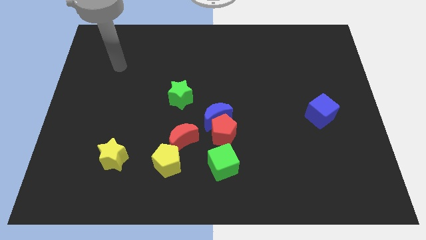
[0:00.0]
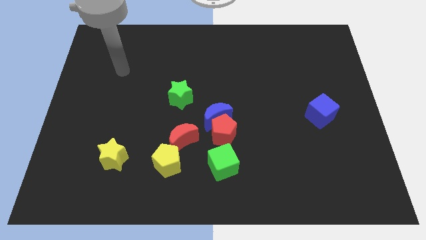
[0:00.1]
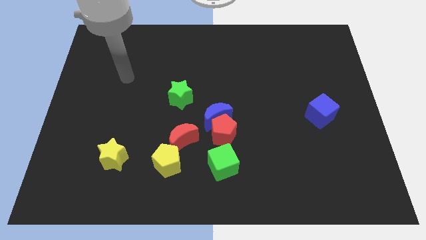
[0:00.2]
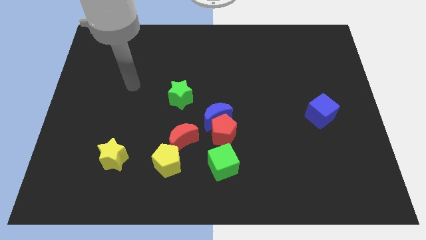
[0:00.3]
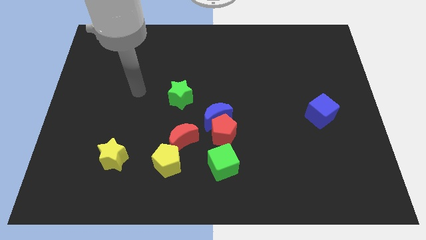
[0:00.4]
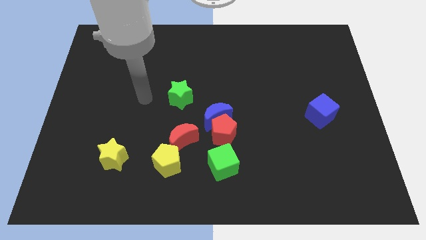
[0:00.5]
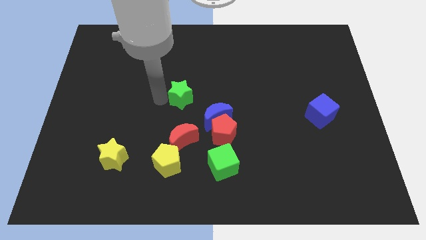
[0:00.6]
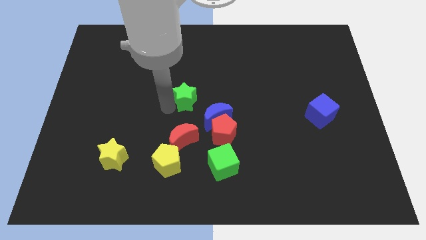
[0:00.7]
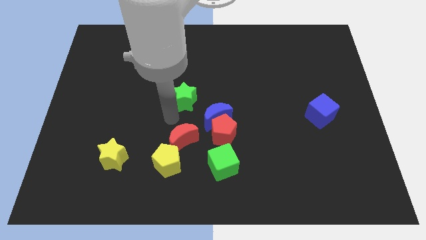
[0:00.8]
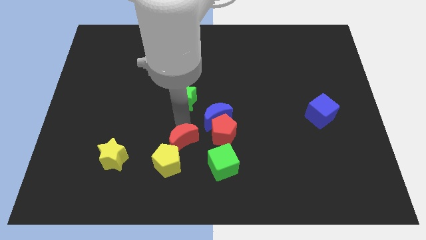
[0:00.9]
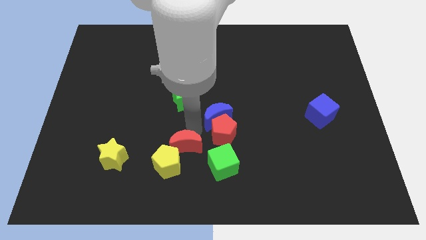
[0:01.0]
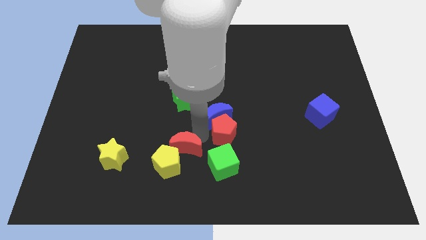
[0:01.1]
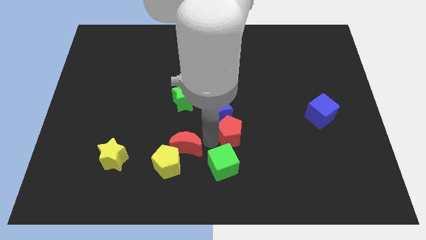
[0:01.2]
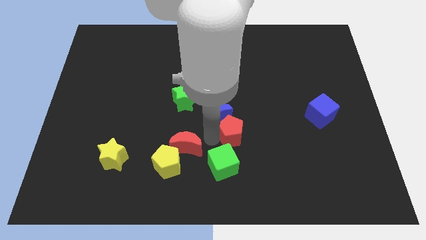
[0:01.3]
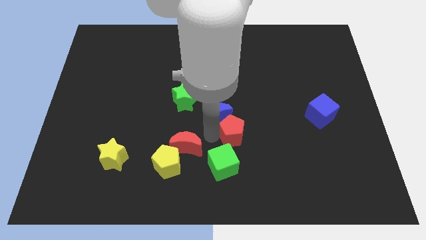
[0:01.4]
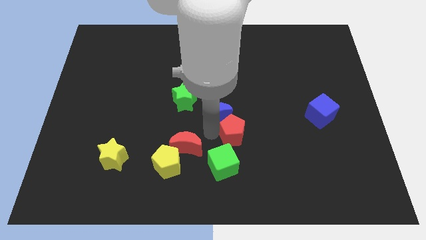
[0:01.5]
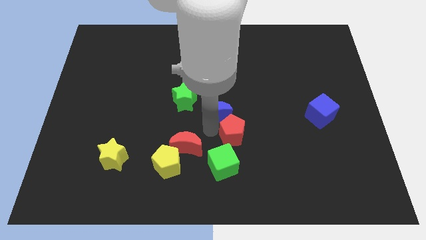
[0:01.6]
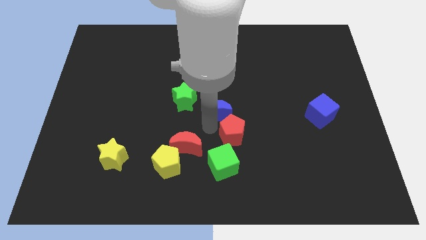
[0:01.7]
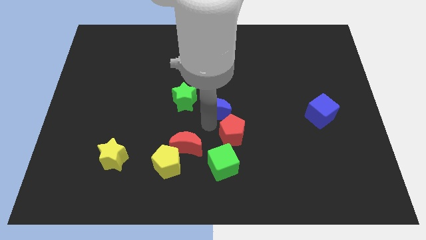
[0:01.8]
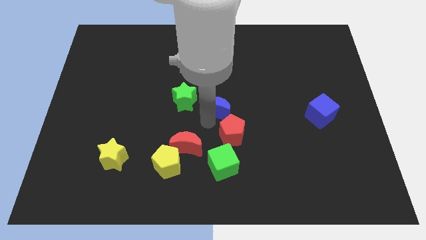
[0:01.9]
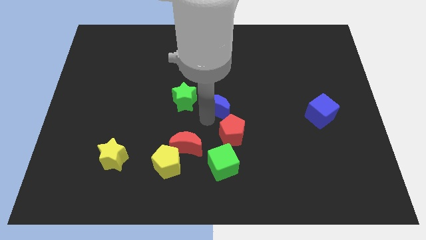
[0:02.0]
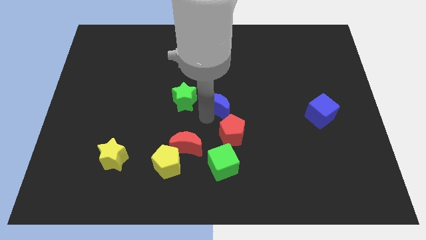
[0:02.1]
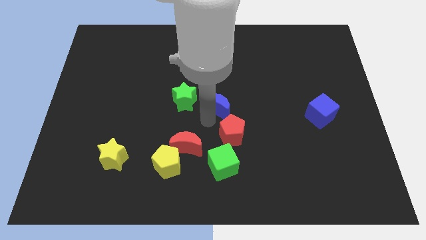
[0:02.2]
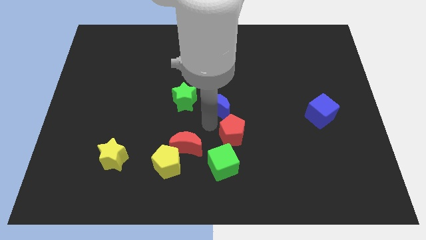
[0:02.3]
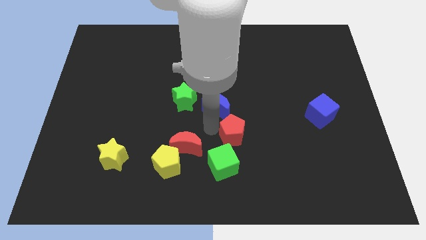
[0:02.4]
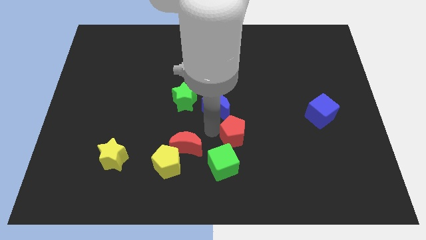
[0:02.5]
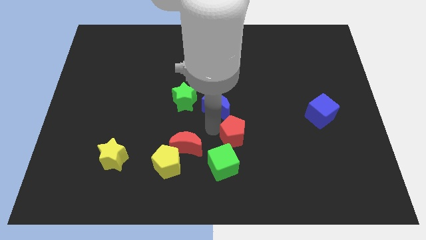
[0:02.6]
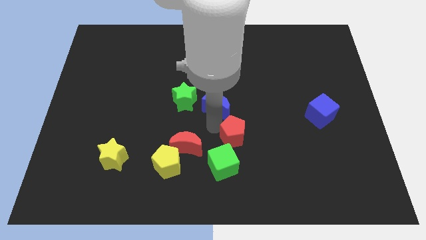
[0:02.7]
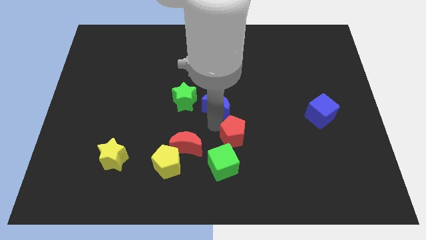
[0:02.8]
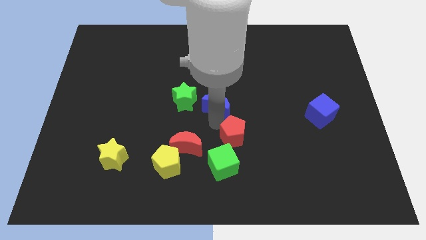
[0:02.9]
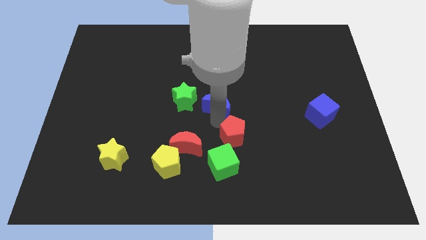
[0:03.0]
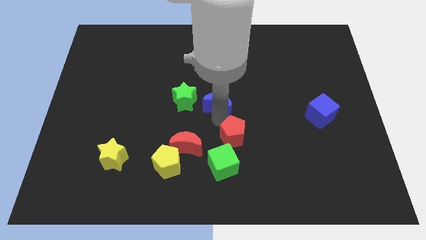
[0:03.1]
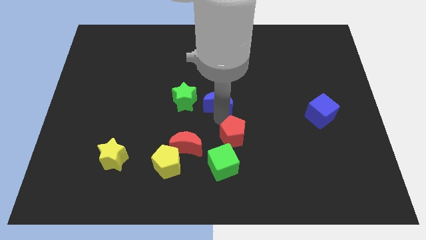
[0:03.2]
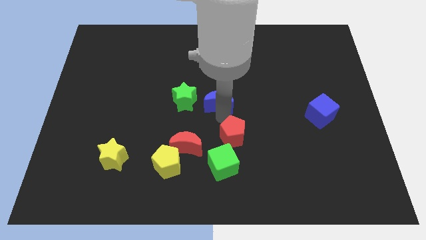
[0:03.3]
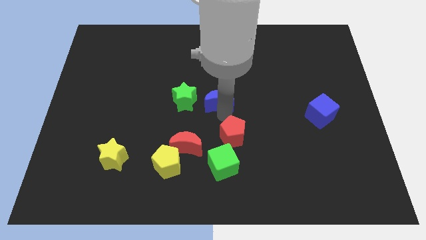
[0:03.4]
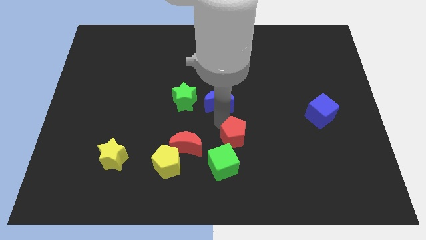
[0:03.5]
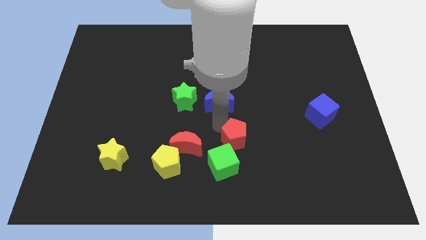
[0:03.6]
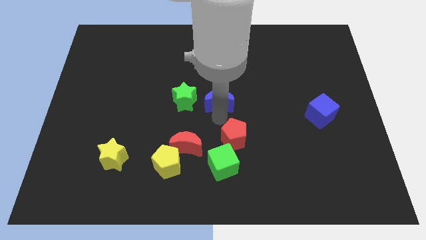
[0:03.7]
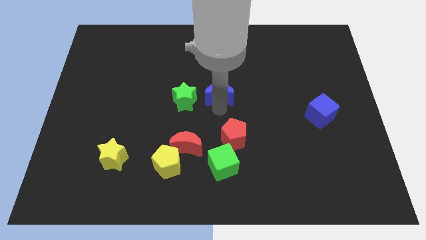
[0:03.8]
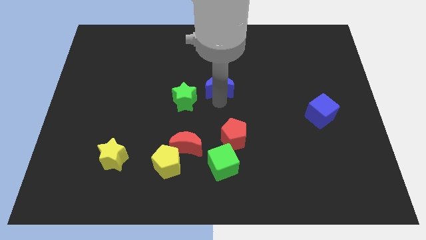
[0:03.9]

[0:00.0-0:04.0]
slide the blue moon a bit up

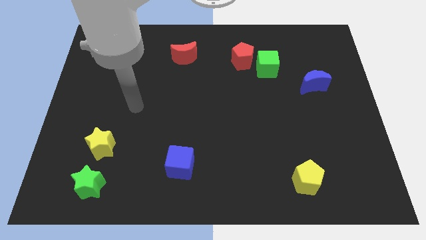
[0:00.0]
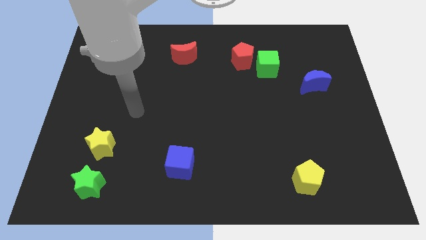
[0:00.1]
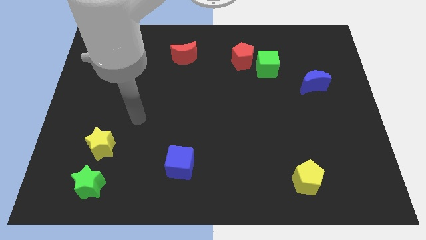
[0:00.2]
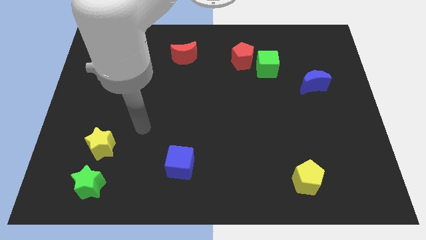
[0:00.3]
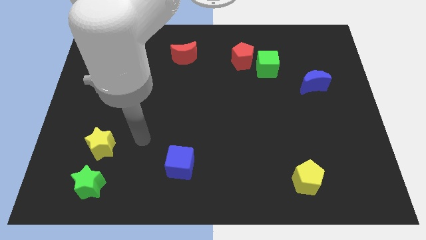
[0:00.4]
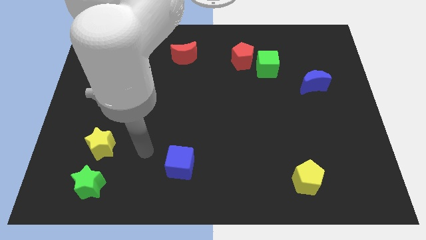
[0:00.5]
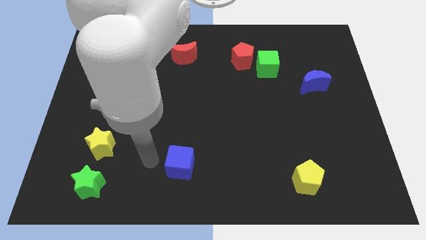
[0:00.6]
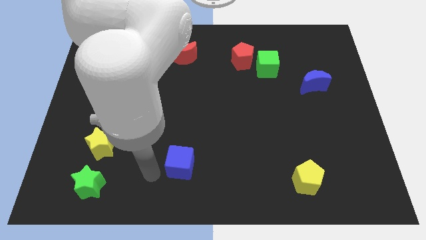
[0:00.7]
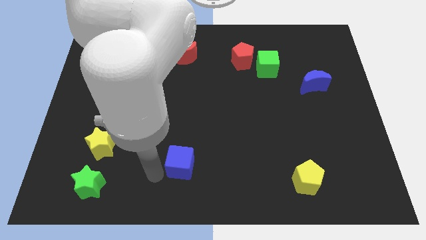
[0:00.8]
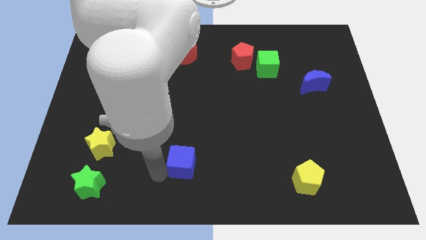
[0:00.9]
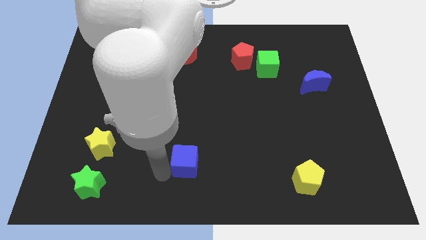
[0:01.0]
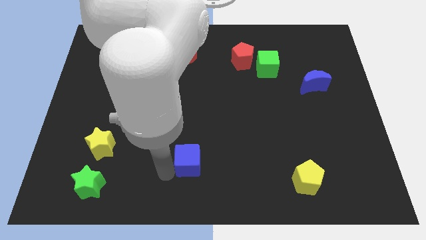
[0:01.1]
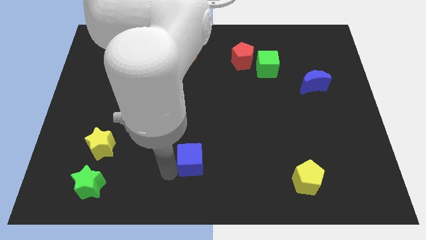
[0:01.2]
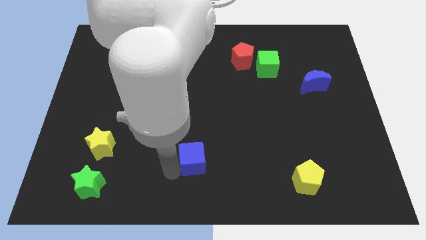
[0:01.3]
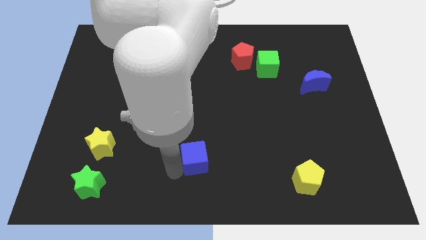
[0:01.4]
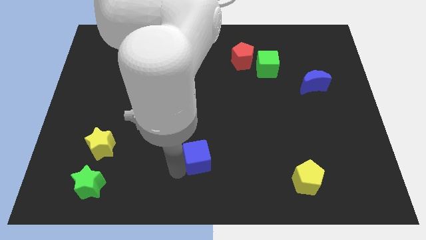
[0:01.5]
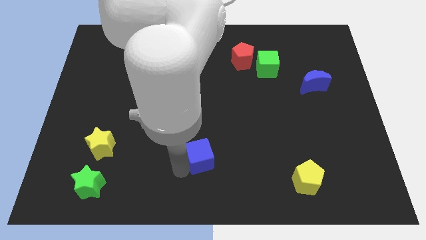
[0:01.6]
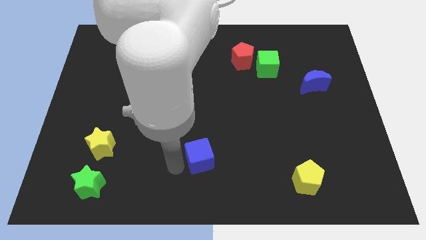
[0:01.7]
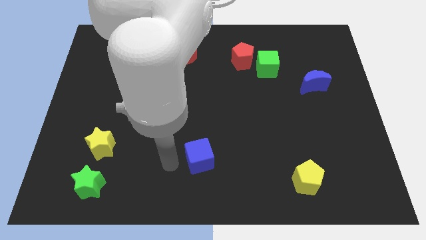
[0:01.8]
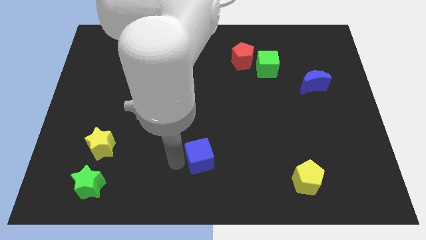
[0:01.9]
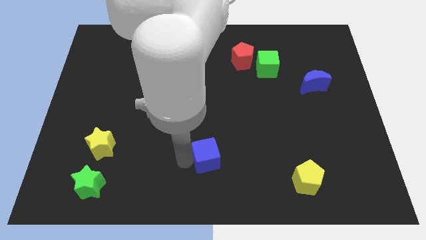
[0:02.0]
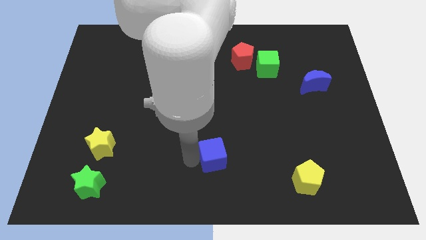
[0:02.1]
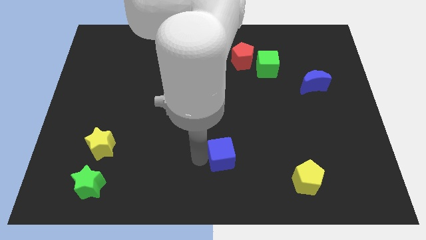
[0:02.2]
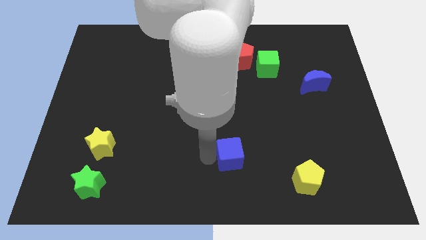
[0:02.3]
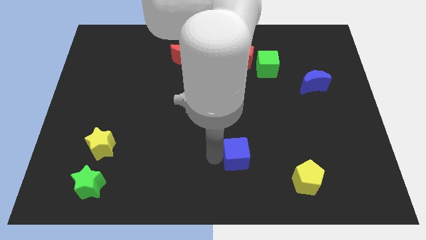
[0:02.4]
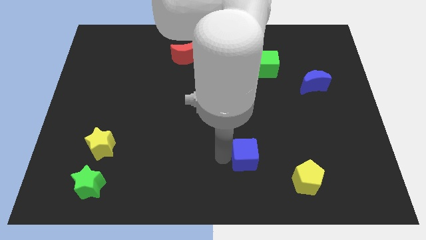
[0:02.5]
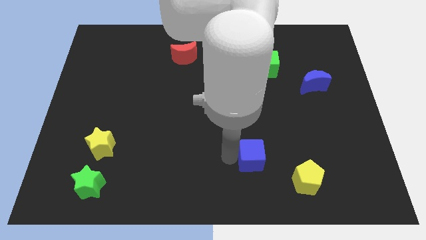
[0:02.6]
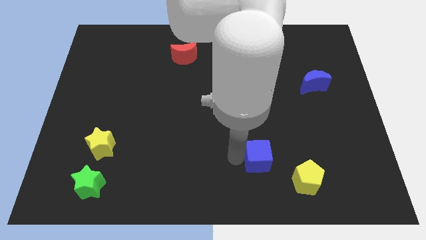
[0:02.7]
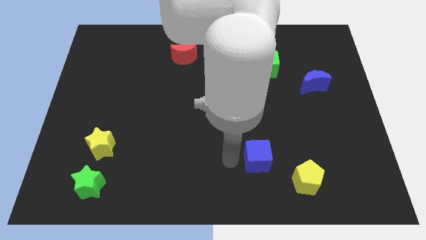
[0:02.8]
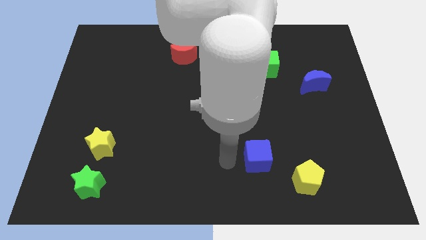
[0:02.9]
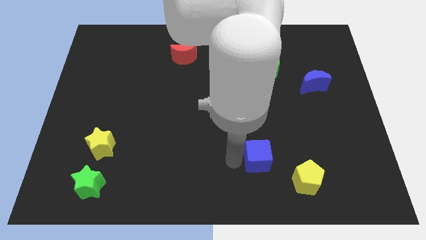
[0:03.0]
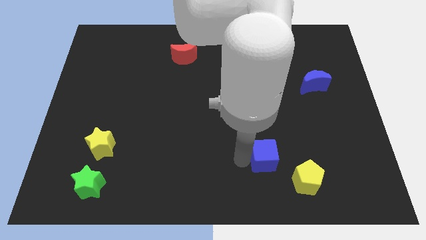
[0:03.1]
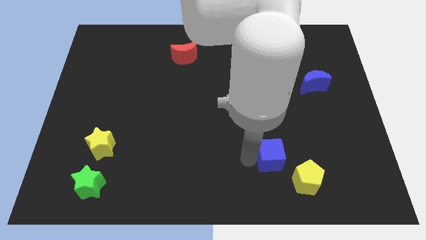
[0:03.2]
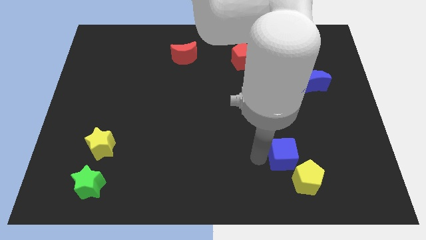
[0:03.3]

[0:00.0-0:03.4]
push the blue cube right

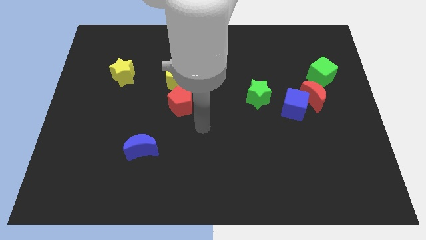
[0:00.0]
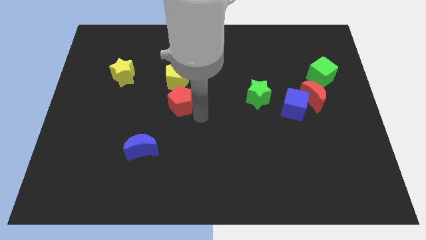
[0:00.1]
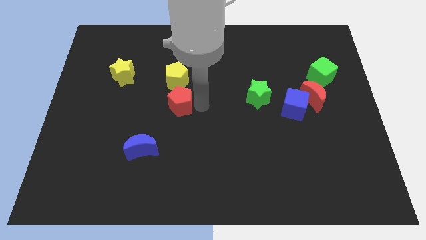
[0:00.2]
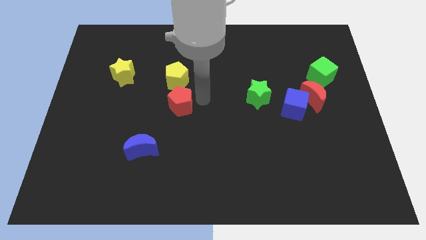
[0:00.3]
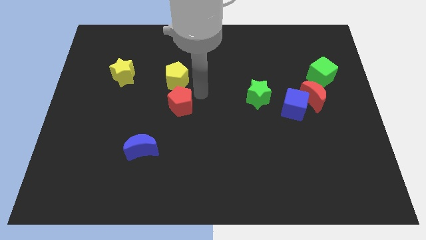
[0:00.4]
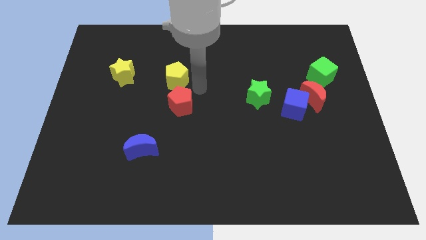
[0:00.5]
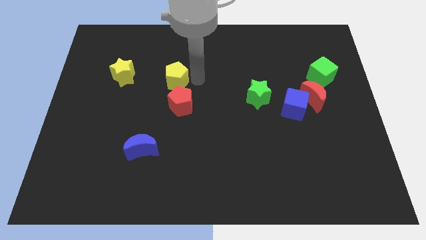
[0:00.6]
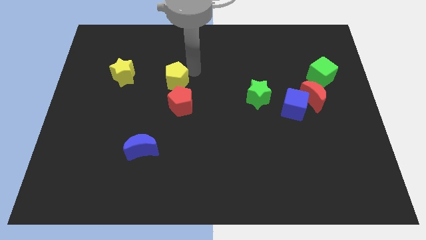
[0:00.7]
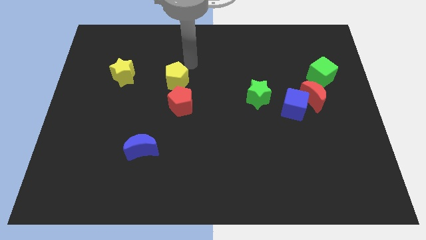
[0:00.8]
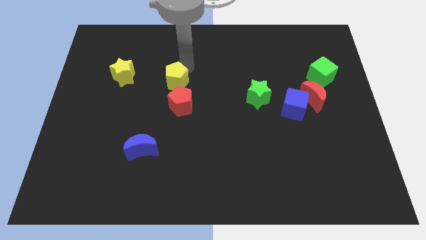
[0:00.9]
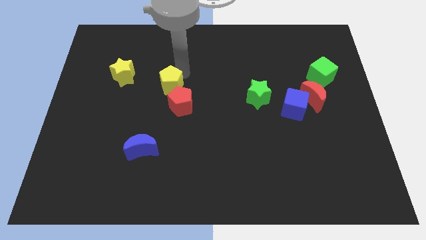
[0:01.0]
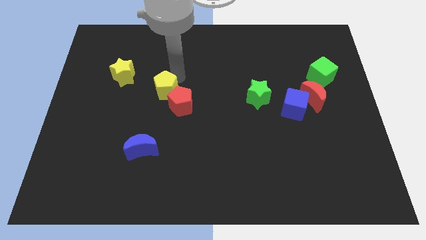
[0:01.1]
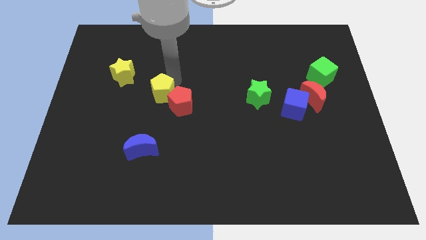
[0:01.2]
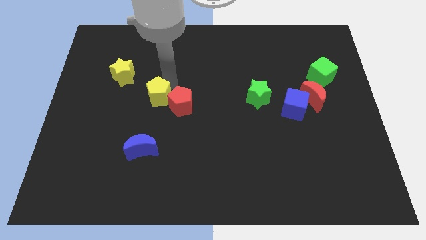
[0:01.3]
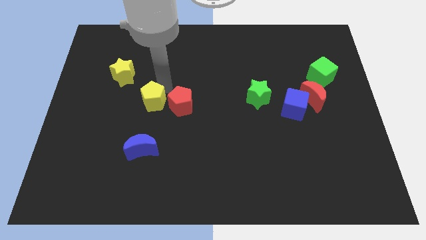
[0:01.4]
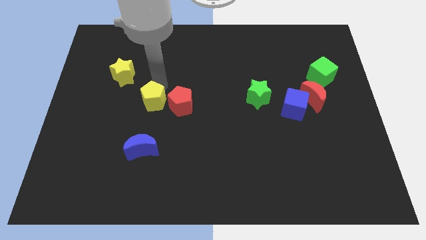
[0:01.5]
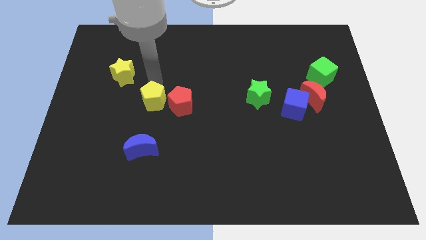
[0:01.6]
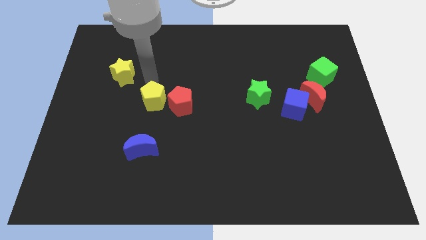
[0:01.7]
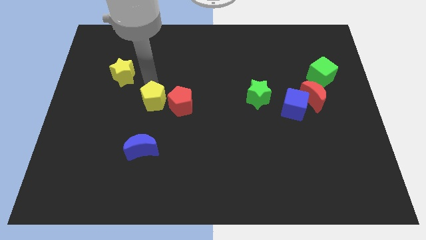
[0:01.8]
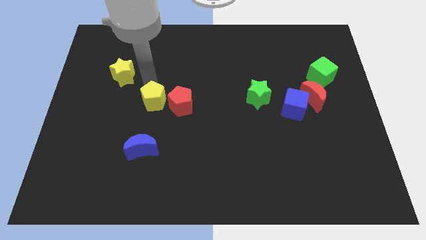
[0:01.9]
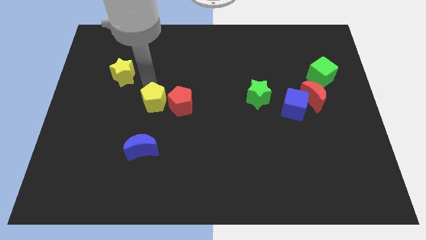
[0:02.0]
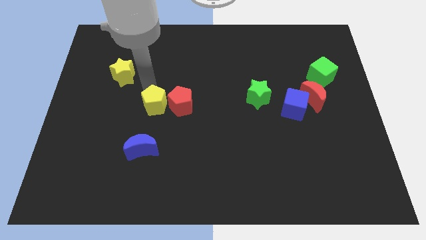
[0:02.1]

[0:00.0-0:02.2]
slightly move the yellow pentagon downwards
